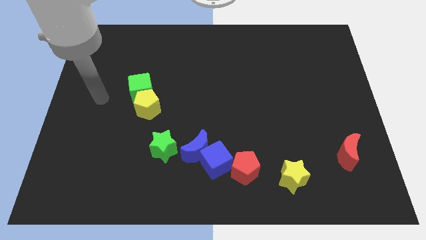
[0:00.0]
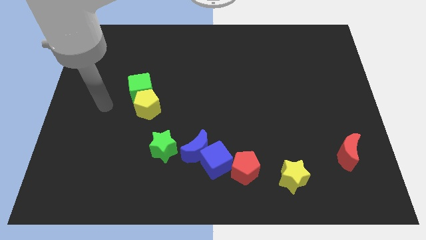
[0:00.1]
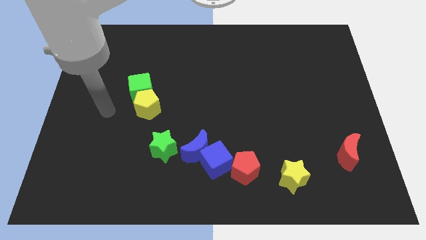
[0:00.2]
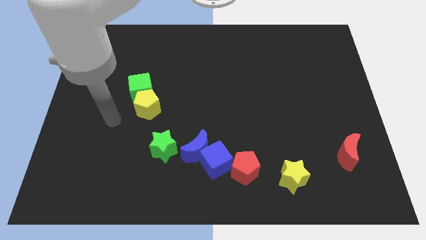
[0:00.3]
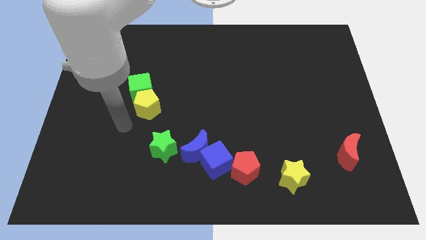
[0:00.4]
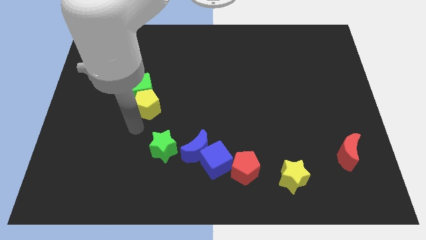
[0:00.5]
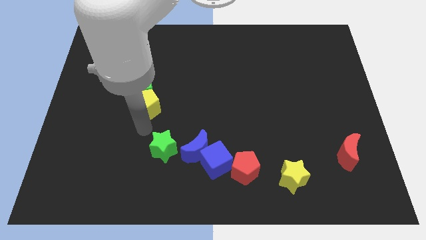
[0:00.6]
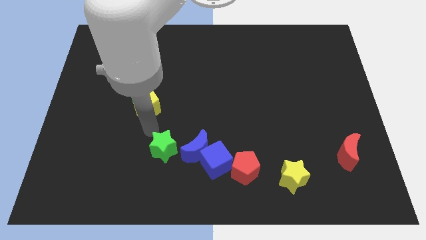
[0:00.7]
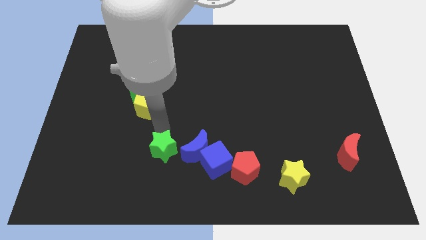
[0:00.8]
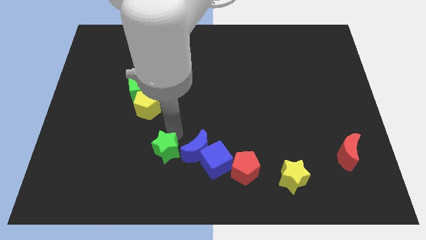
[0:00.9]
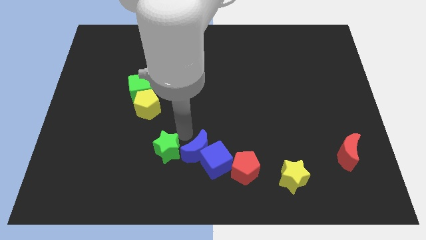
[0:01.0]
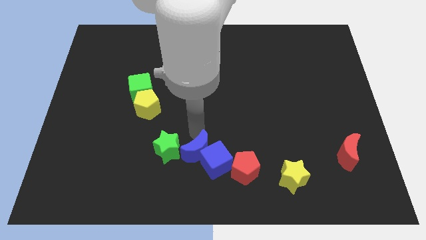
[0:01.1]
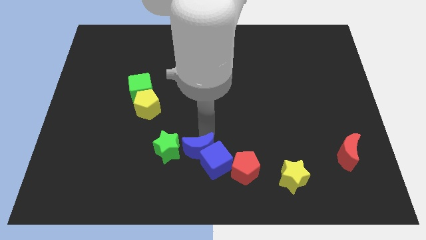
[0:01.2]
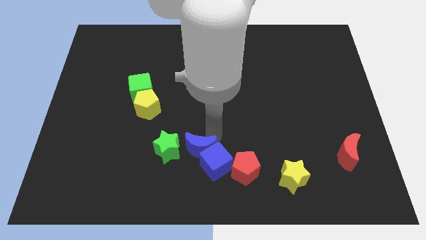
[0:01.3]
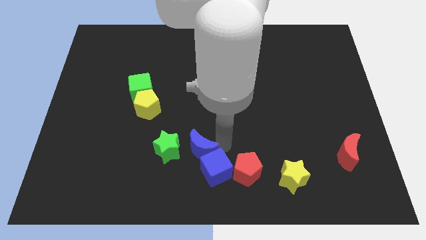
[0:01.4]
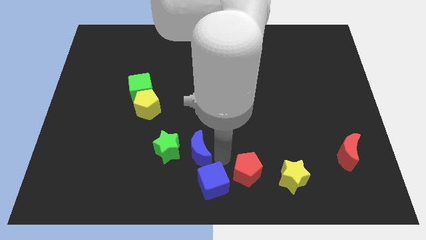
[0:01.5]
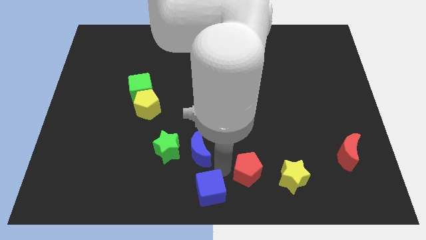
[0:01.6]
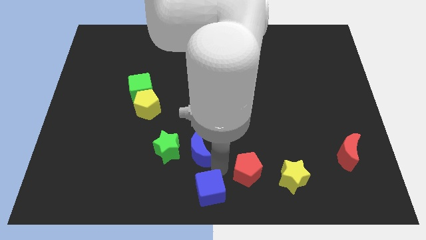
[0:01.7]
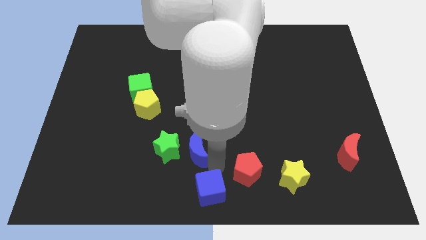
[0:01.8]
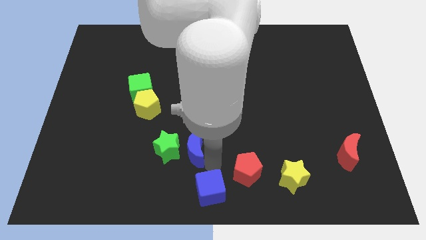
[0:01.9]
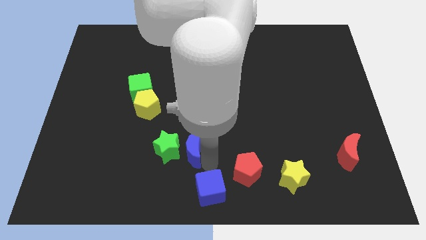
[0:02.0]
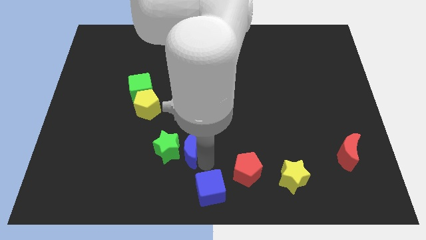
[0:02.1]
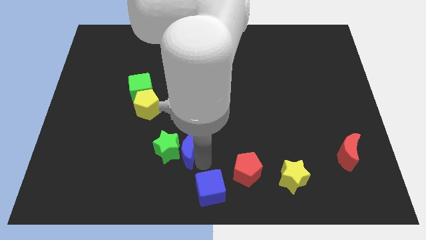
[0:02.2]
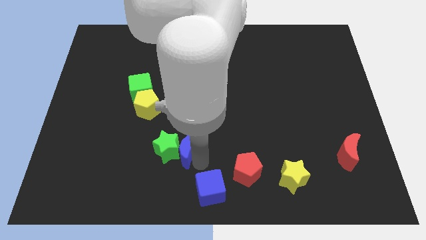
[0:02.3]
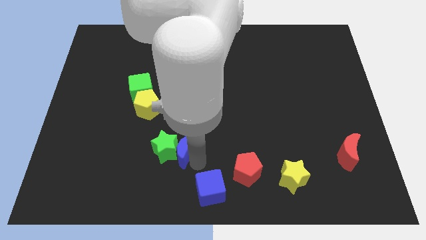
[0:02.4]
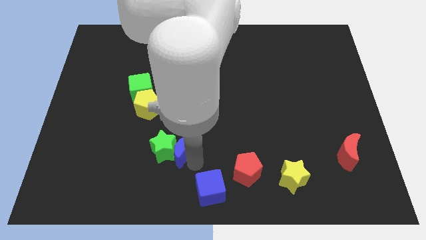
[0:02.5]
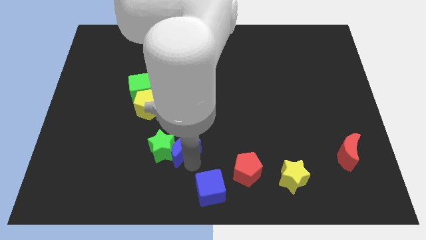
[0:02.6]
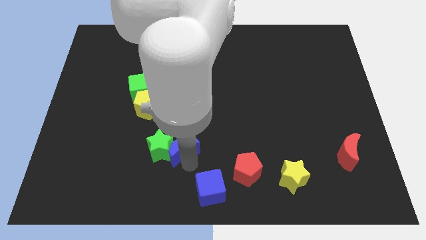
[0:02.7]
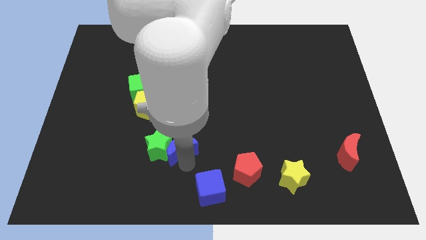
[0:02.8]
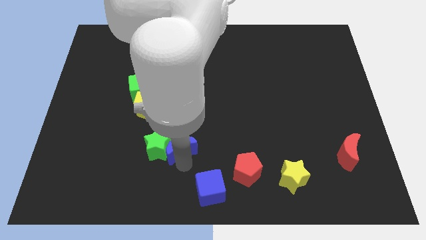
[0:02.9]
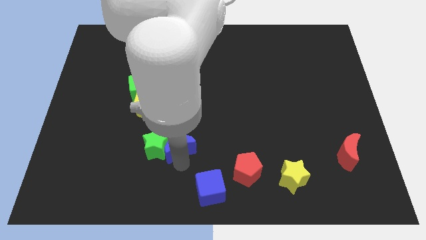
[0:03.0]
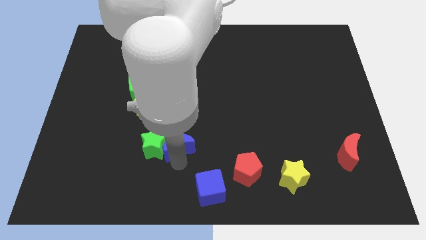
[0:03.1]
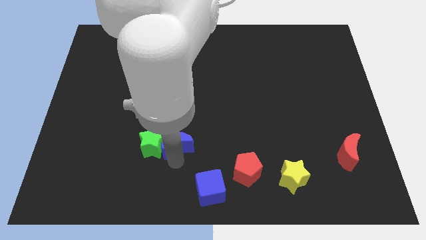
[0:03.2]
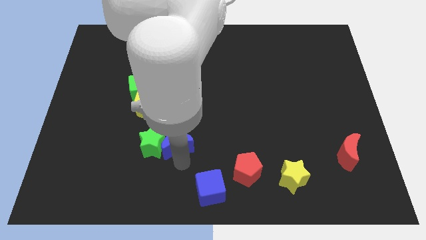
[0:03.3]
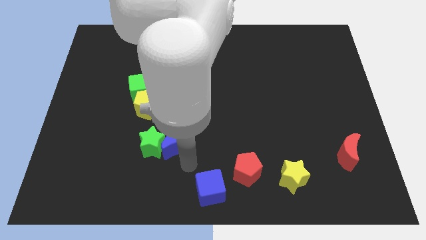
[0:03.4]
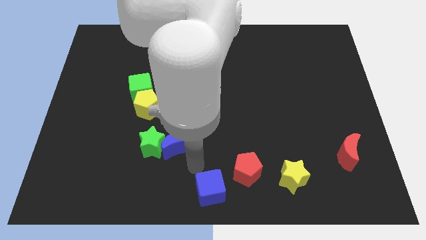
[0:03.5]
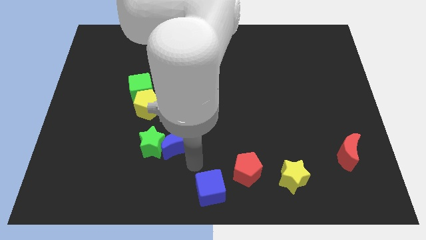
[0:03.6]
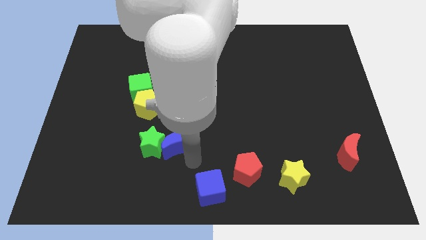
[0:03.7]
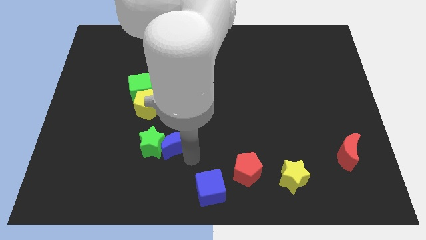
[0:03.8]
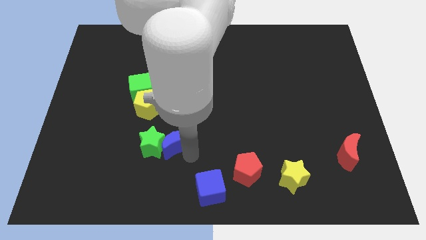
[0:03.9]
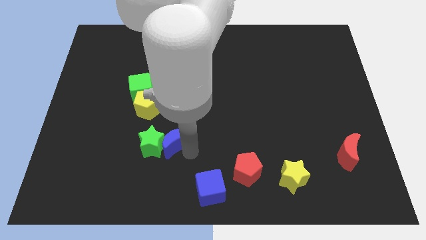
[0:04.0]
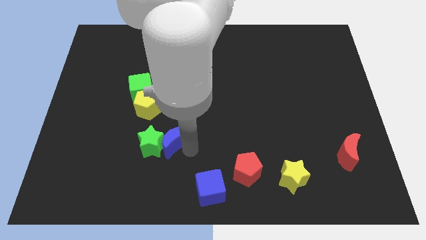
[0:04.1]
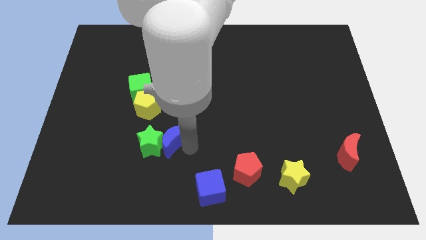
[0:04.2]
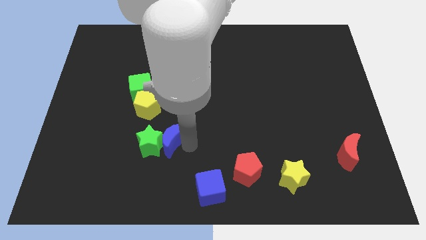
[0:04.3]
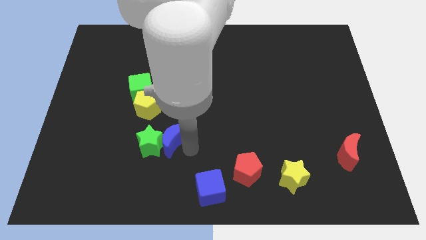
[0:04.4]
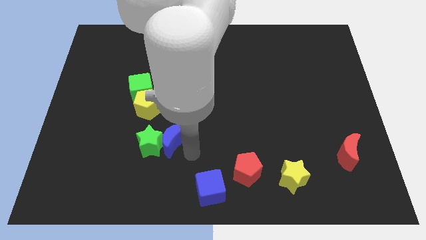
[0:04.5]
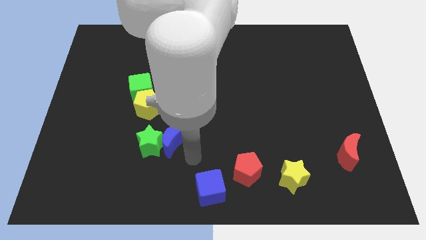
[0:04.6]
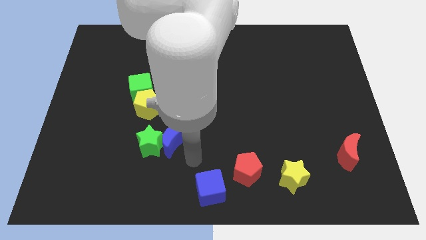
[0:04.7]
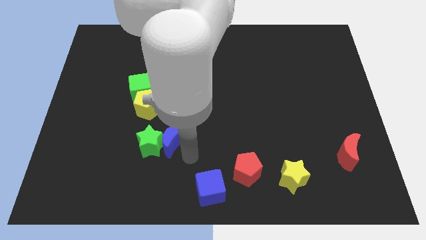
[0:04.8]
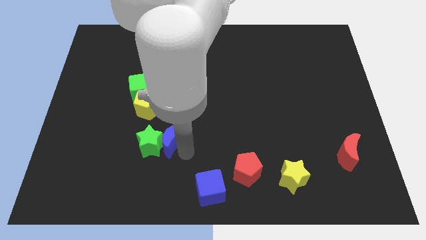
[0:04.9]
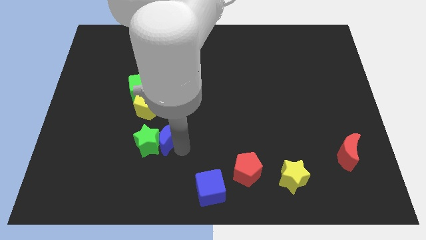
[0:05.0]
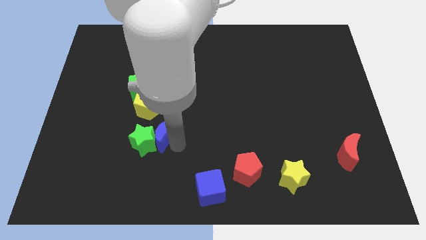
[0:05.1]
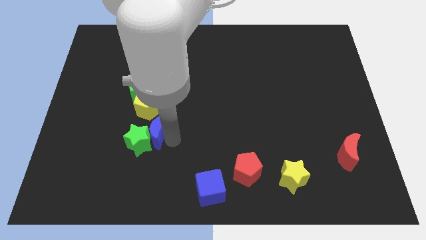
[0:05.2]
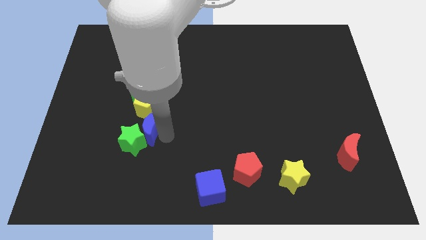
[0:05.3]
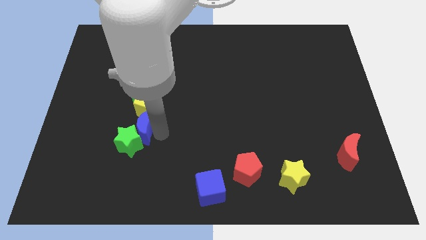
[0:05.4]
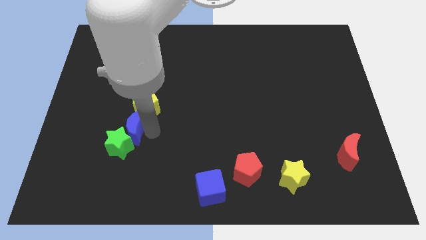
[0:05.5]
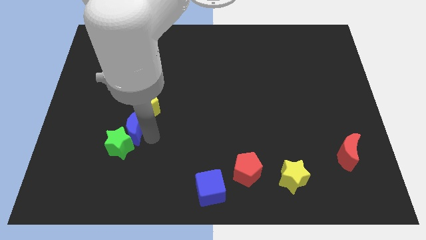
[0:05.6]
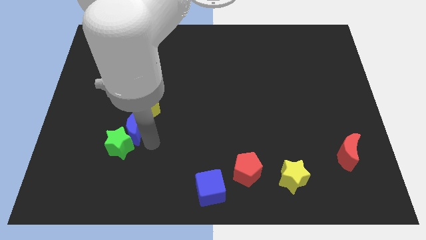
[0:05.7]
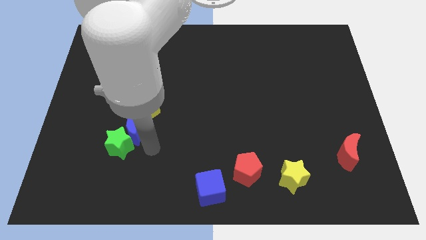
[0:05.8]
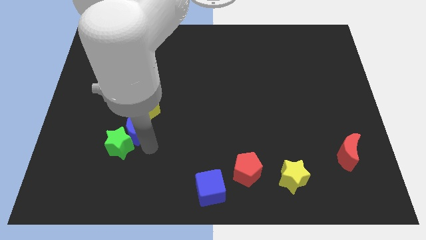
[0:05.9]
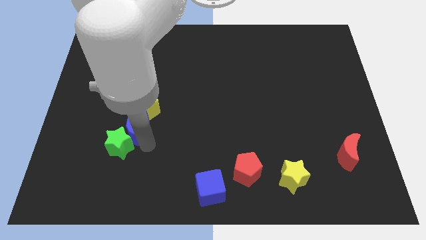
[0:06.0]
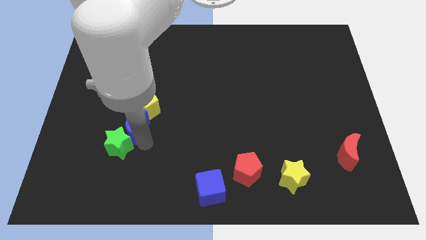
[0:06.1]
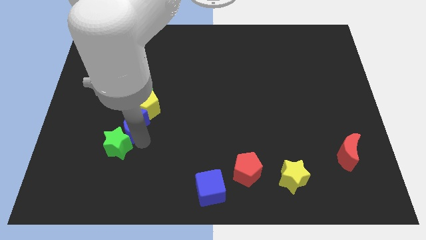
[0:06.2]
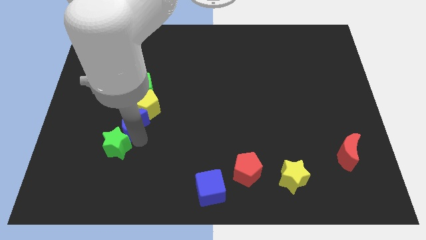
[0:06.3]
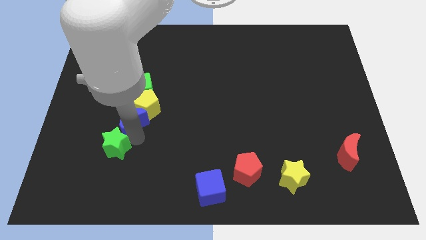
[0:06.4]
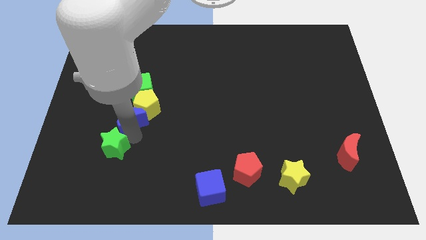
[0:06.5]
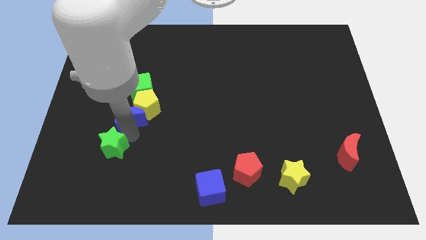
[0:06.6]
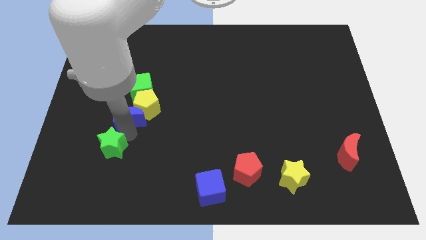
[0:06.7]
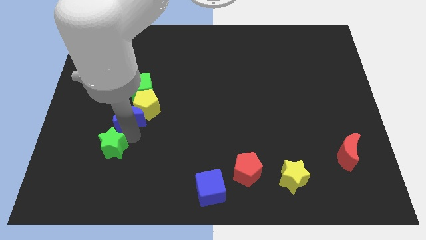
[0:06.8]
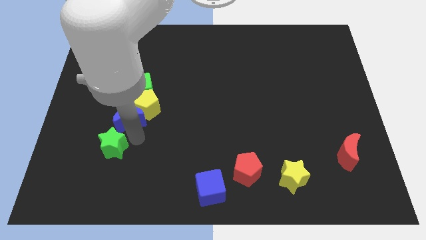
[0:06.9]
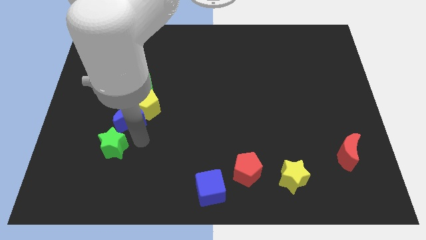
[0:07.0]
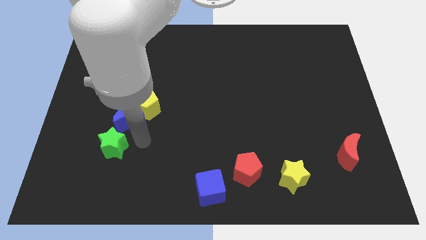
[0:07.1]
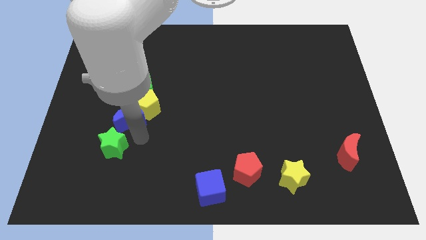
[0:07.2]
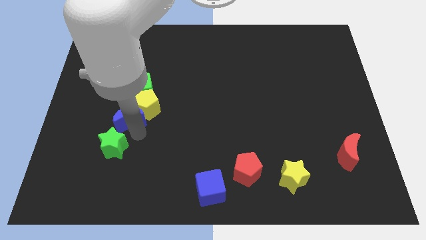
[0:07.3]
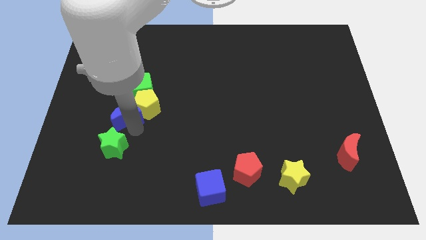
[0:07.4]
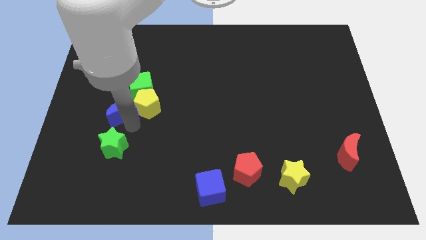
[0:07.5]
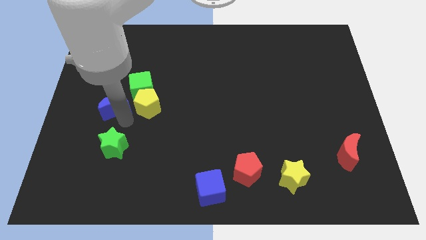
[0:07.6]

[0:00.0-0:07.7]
slide the blue moon upwards and then left
